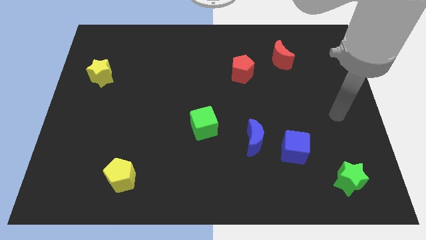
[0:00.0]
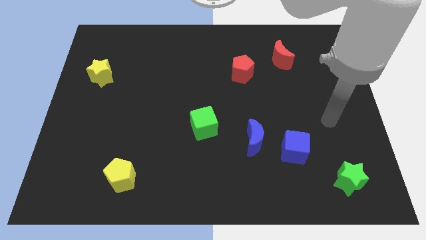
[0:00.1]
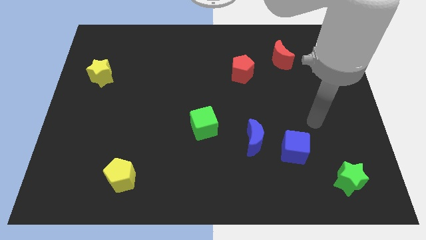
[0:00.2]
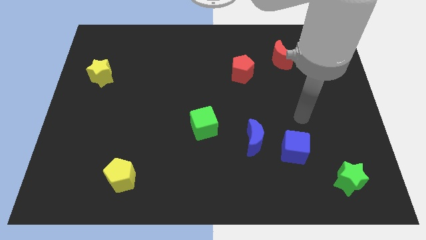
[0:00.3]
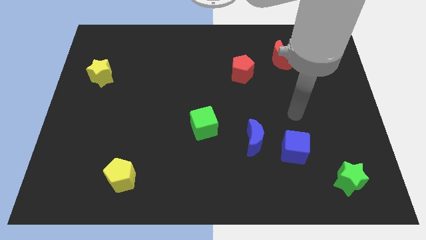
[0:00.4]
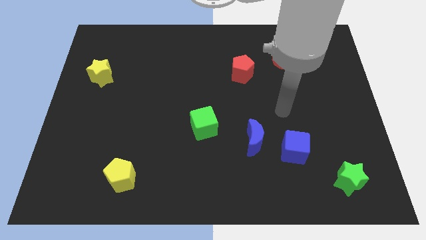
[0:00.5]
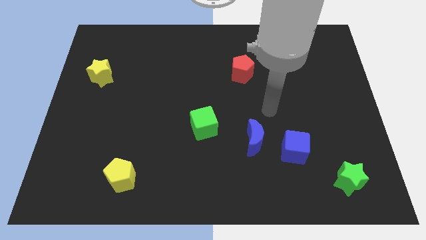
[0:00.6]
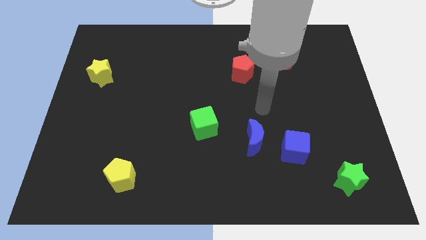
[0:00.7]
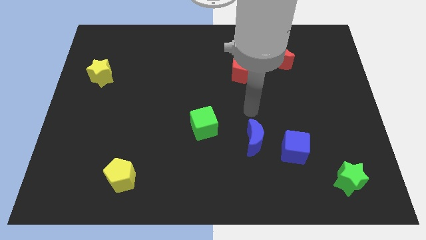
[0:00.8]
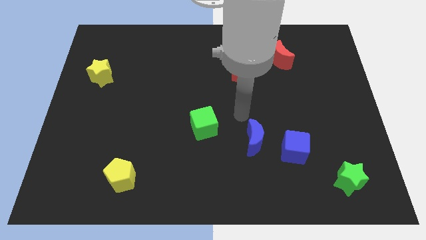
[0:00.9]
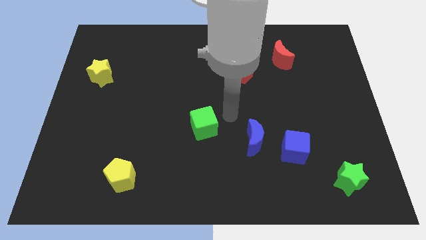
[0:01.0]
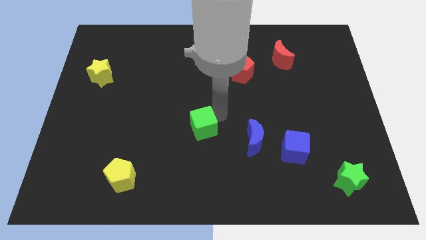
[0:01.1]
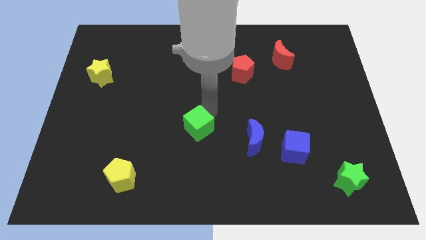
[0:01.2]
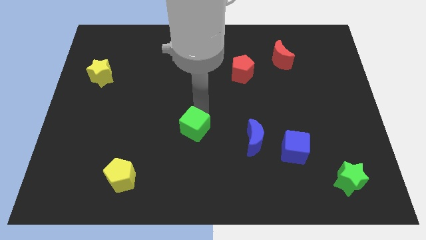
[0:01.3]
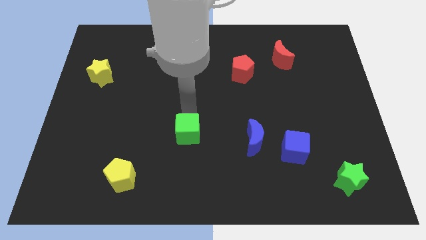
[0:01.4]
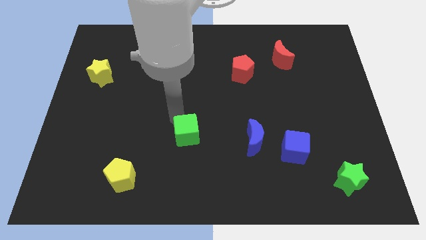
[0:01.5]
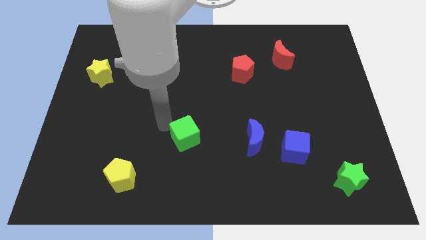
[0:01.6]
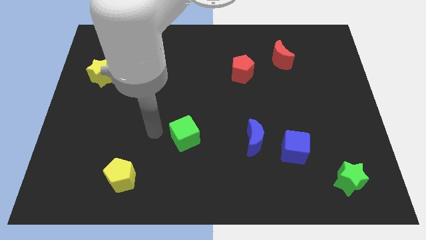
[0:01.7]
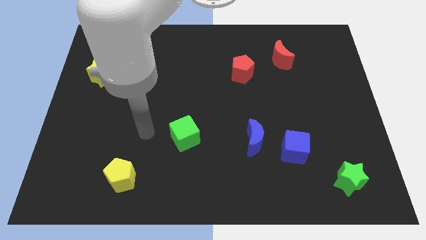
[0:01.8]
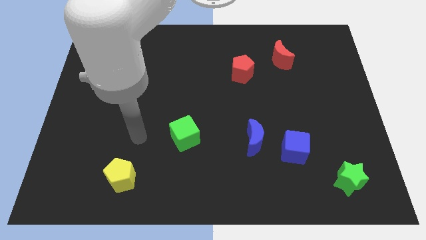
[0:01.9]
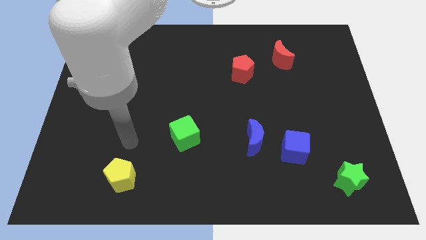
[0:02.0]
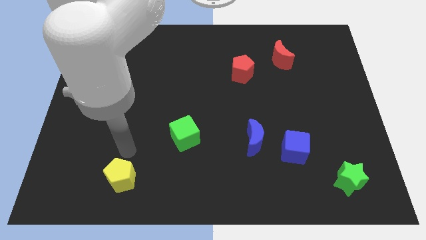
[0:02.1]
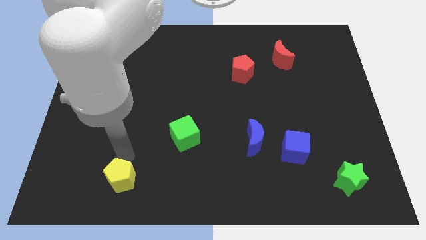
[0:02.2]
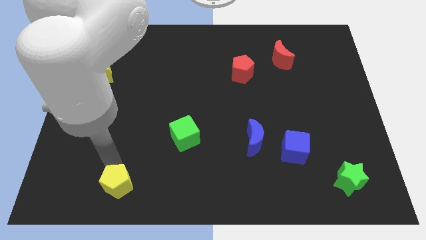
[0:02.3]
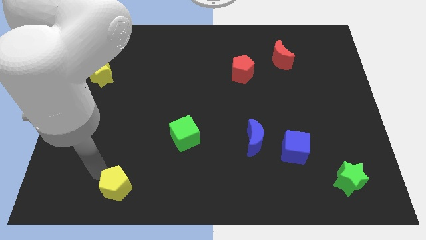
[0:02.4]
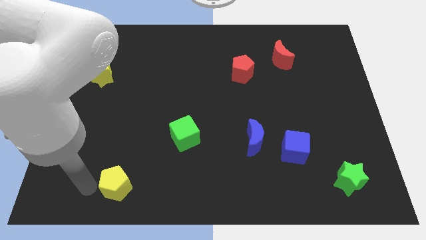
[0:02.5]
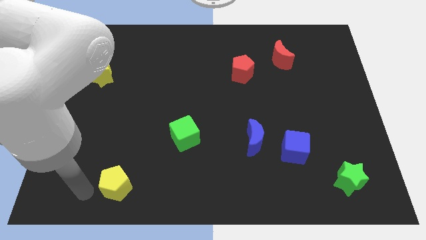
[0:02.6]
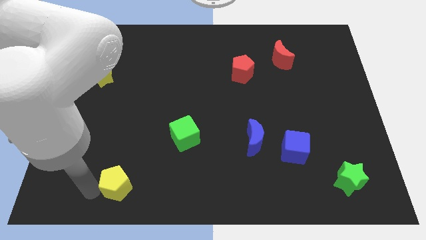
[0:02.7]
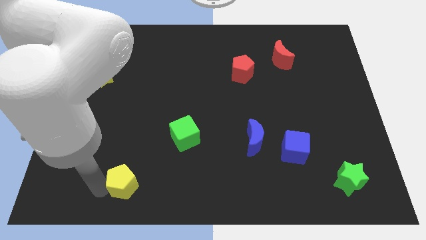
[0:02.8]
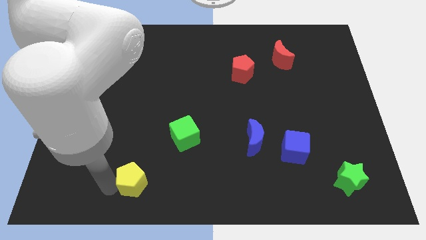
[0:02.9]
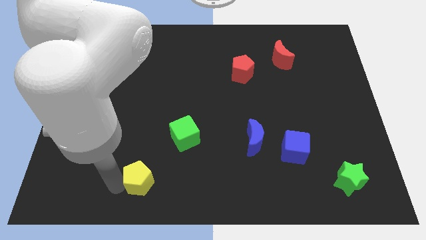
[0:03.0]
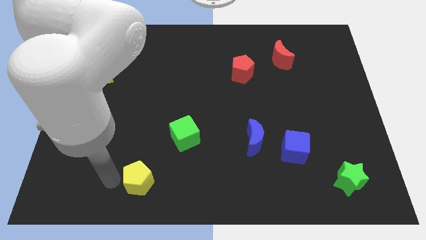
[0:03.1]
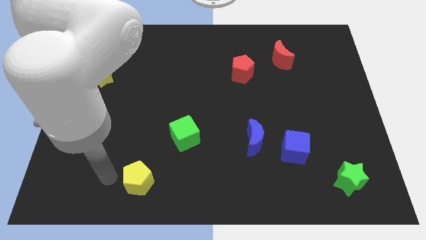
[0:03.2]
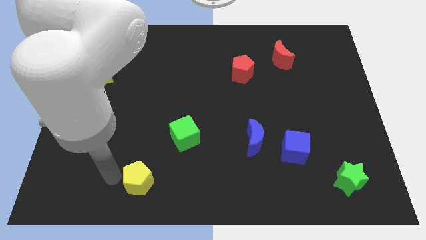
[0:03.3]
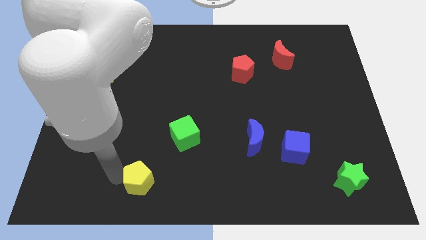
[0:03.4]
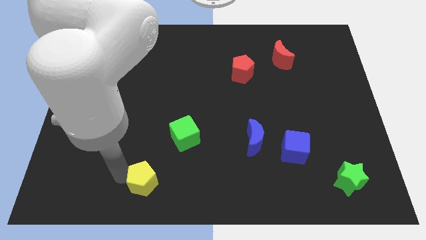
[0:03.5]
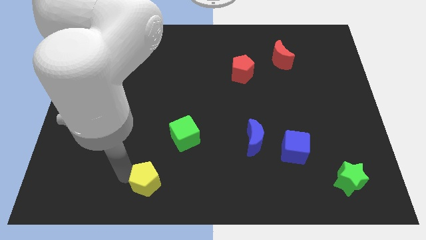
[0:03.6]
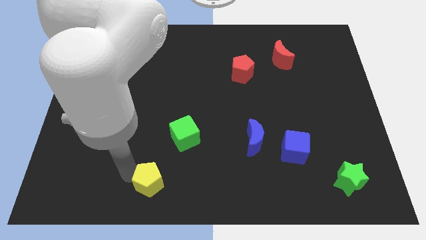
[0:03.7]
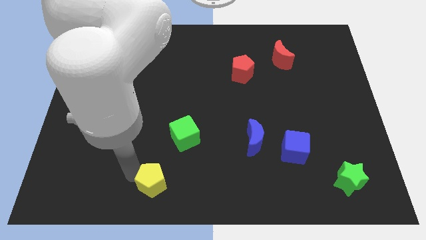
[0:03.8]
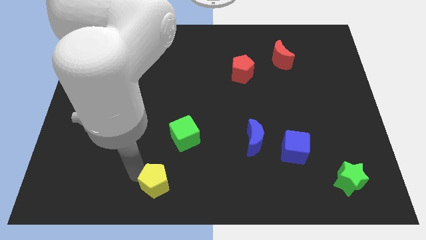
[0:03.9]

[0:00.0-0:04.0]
move the yellow pentagon somewhat right

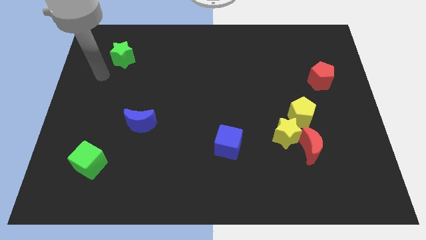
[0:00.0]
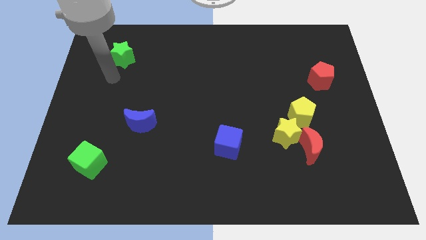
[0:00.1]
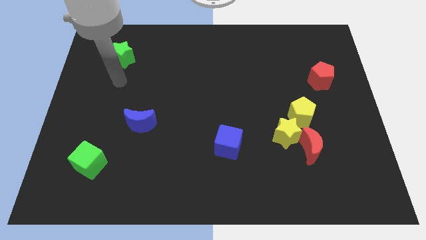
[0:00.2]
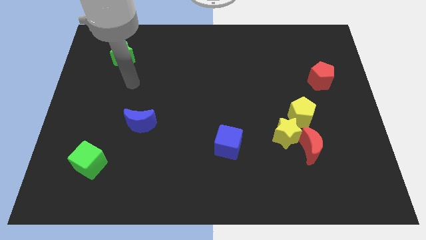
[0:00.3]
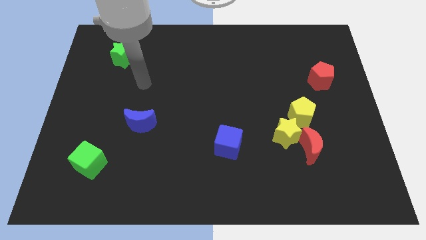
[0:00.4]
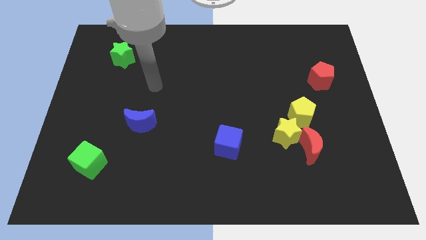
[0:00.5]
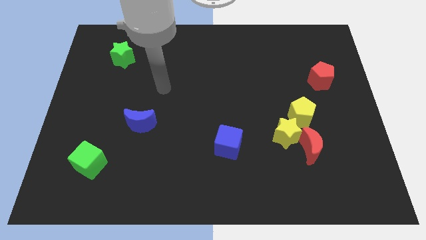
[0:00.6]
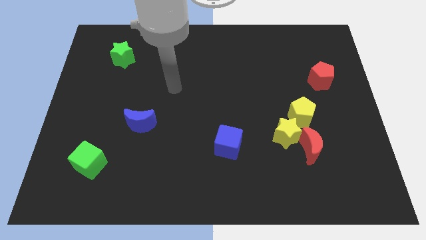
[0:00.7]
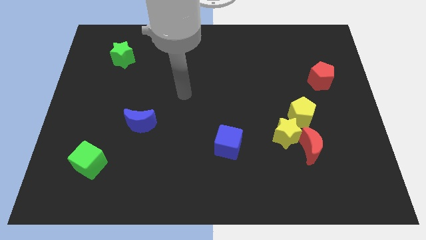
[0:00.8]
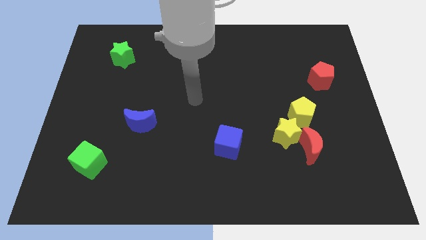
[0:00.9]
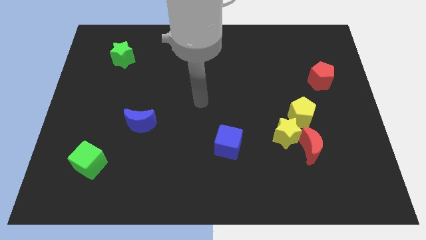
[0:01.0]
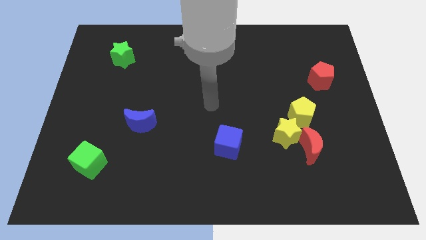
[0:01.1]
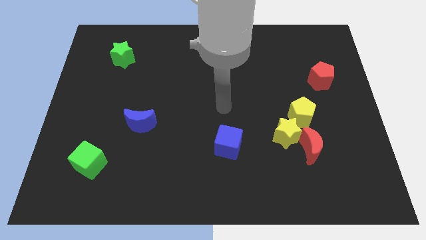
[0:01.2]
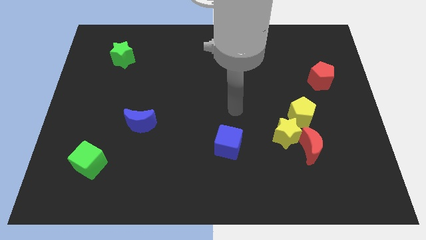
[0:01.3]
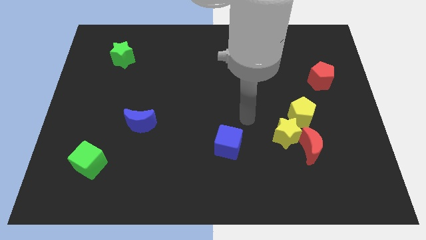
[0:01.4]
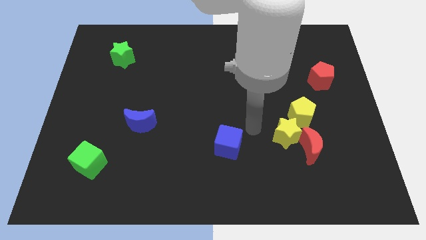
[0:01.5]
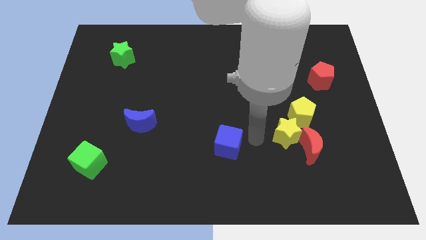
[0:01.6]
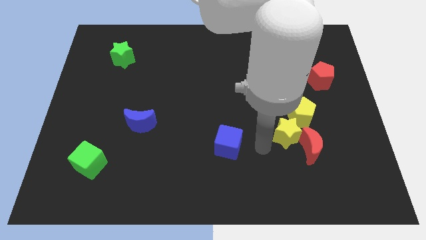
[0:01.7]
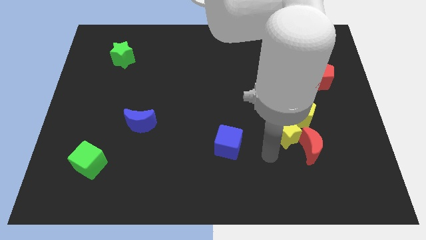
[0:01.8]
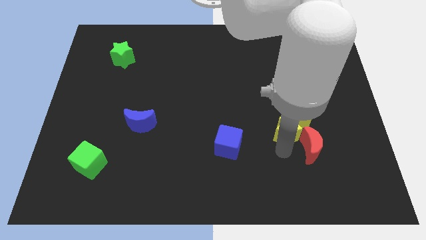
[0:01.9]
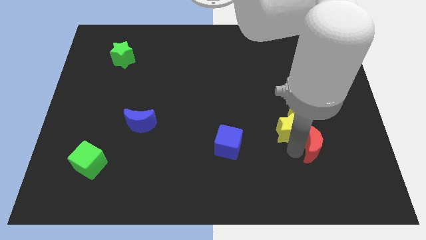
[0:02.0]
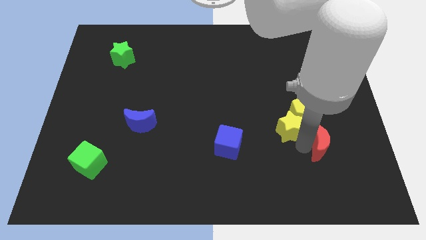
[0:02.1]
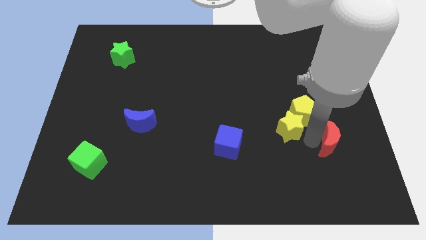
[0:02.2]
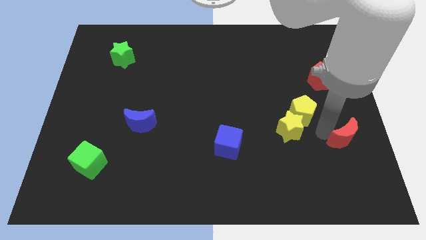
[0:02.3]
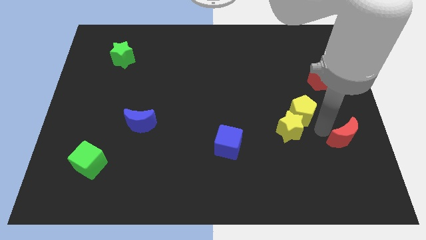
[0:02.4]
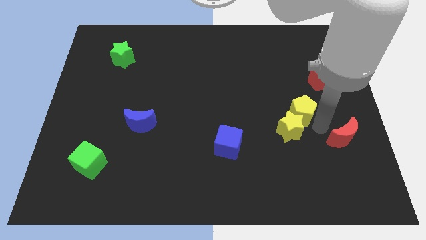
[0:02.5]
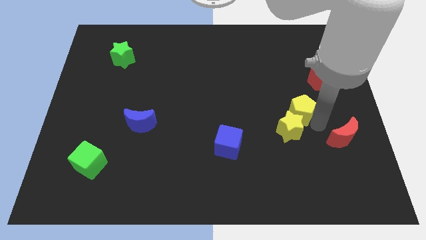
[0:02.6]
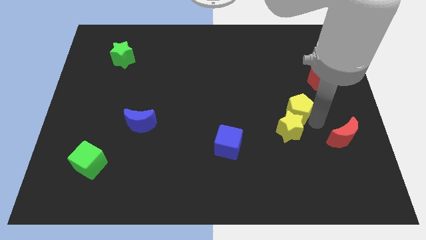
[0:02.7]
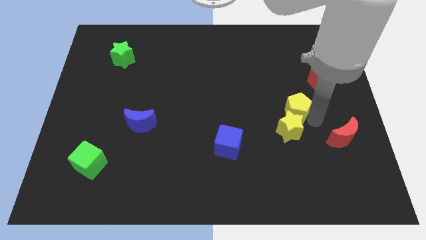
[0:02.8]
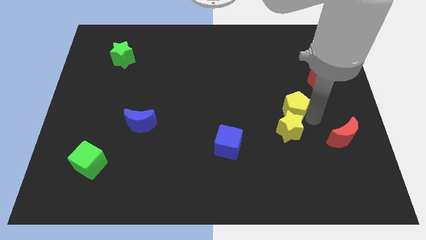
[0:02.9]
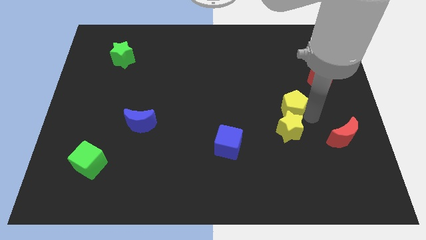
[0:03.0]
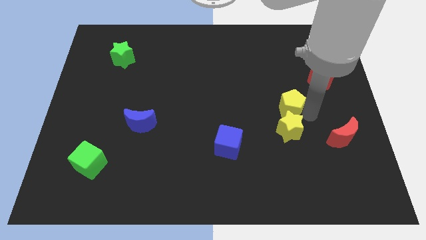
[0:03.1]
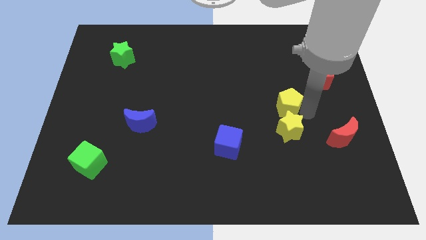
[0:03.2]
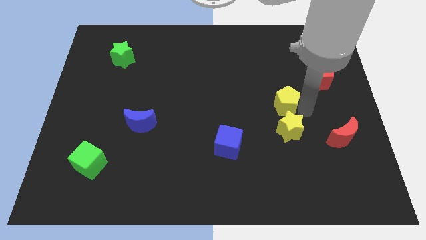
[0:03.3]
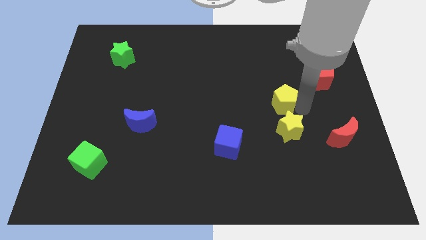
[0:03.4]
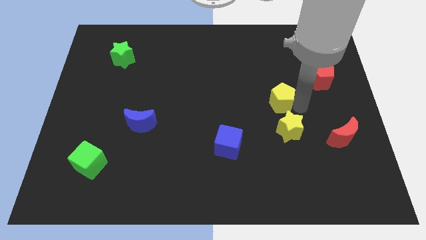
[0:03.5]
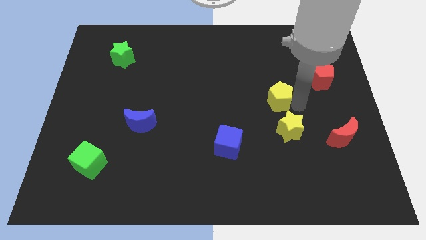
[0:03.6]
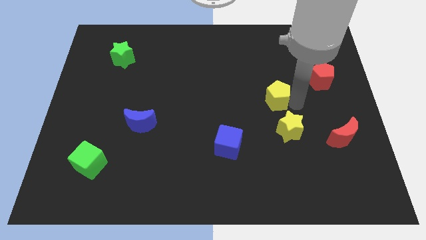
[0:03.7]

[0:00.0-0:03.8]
push the yellow pentagon a little bit up and then to the left

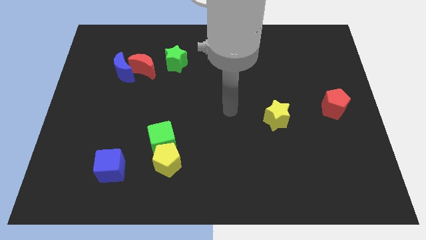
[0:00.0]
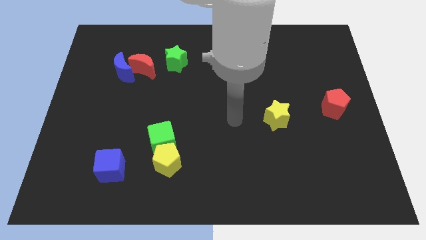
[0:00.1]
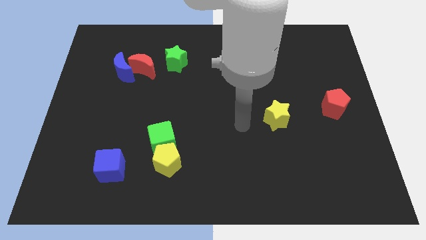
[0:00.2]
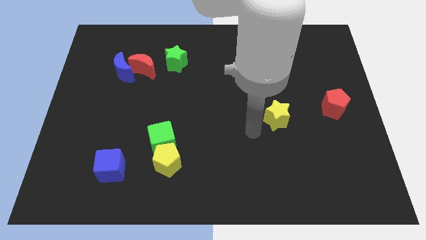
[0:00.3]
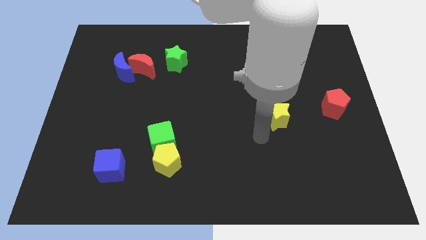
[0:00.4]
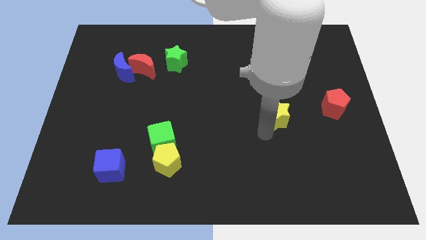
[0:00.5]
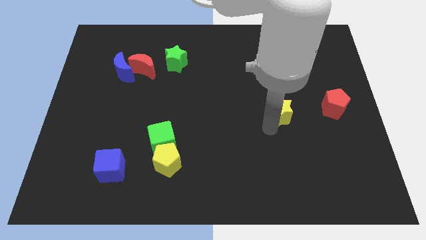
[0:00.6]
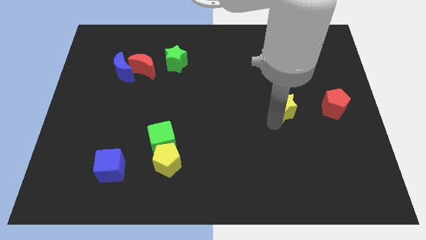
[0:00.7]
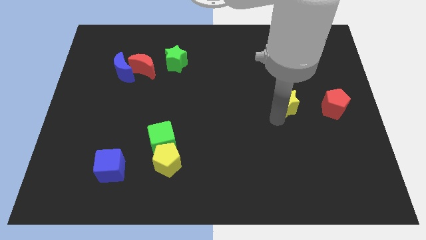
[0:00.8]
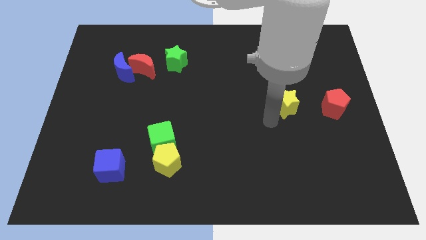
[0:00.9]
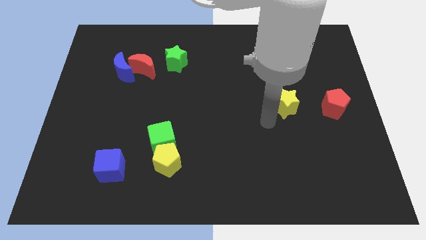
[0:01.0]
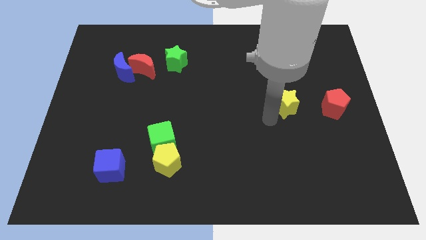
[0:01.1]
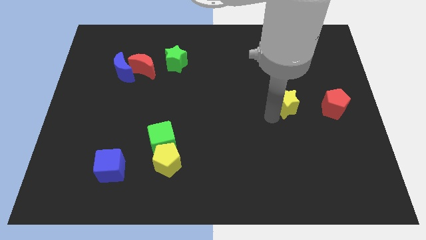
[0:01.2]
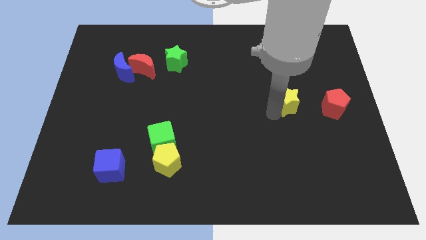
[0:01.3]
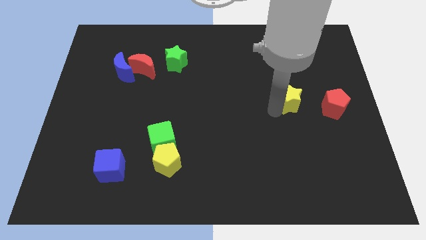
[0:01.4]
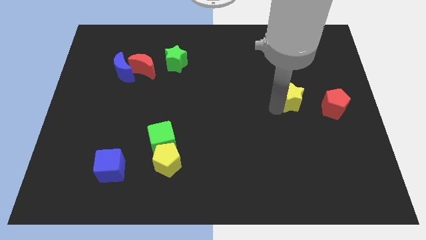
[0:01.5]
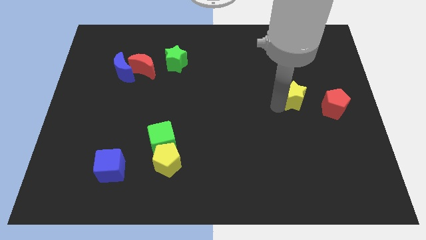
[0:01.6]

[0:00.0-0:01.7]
push the yellow star slightly up and right
